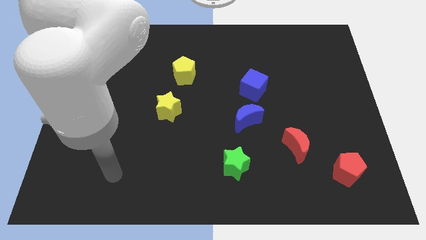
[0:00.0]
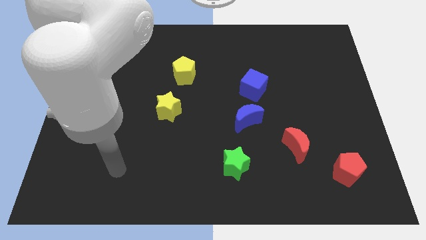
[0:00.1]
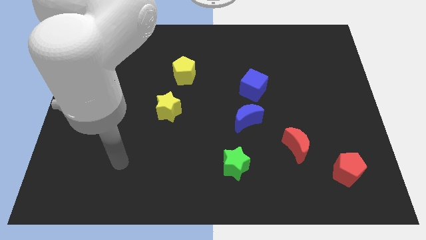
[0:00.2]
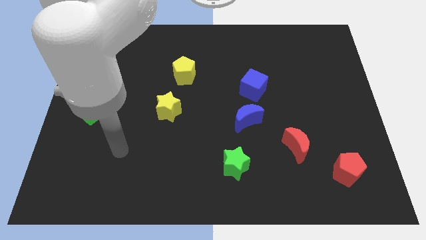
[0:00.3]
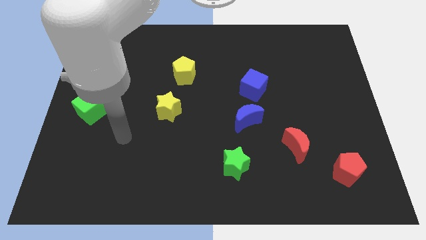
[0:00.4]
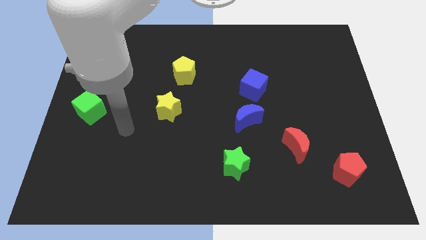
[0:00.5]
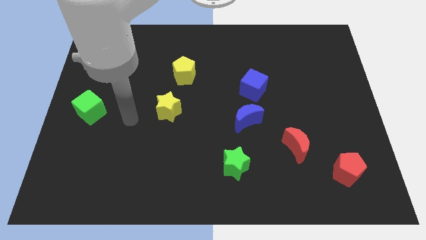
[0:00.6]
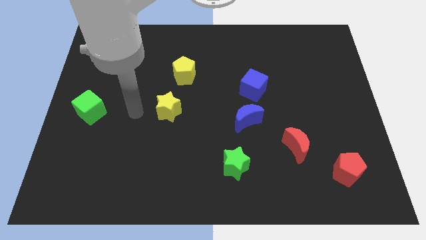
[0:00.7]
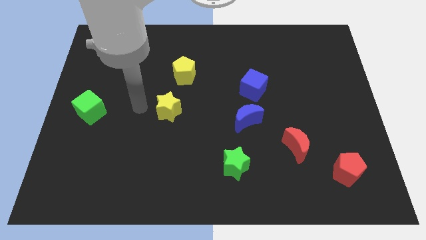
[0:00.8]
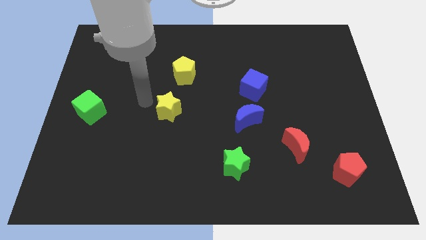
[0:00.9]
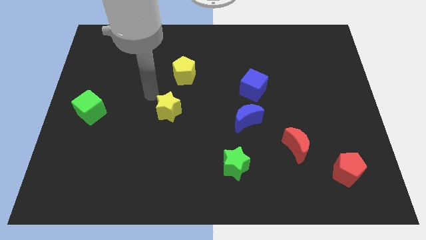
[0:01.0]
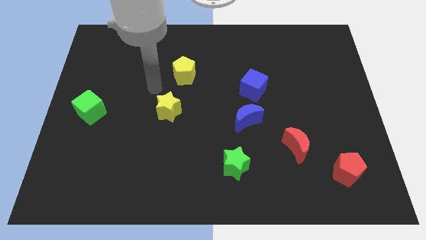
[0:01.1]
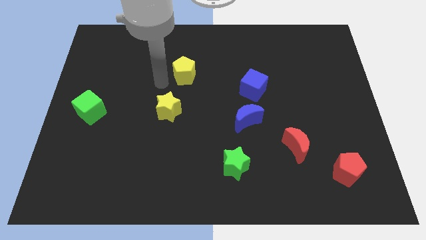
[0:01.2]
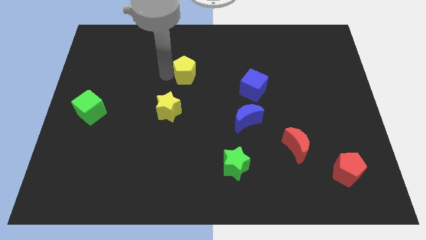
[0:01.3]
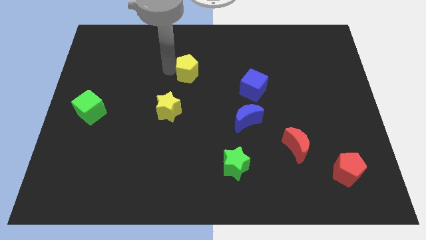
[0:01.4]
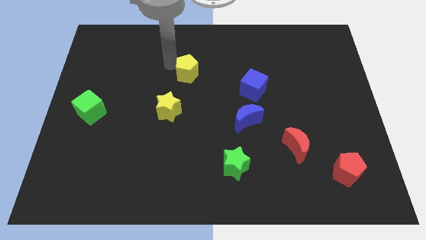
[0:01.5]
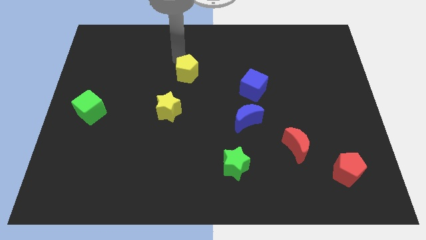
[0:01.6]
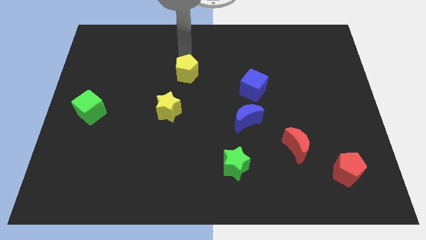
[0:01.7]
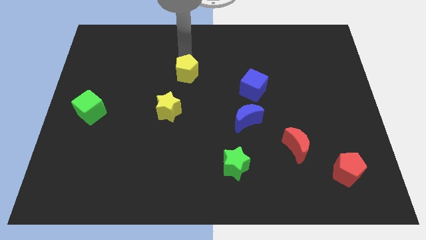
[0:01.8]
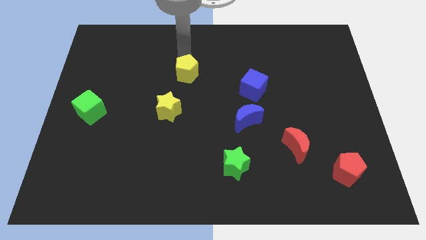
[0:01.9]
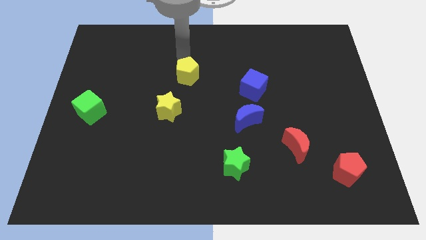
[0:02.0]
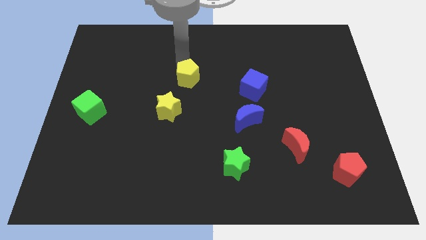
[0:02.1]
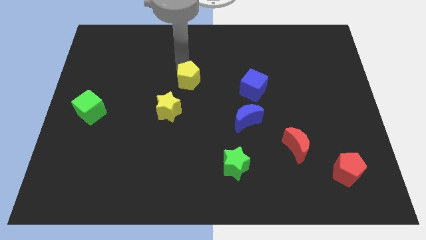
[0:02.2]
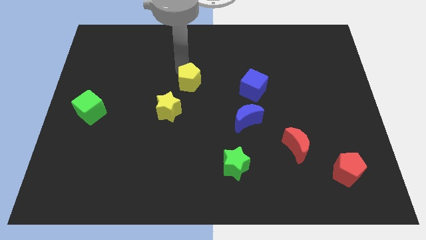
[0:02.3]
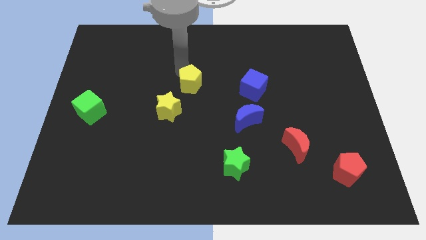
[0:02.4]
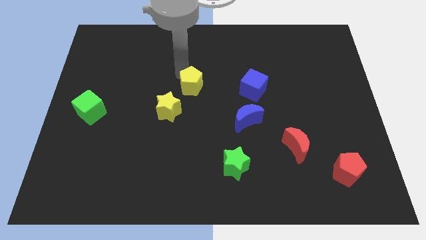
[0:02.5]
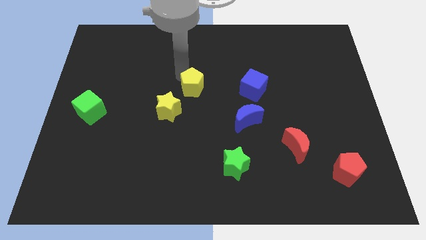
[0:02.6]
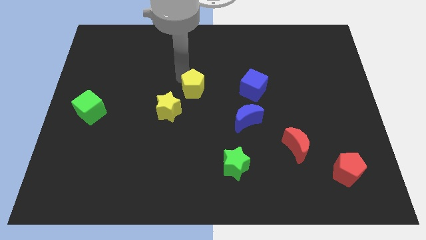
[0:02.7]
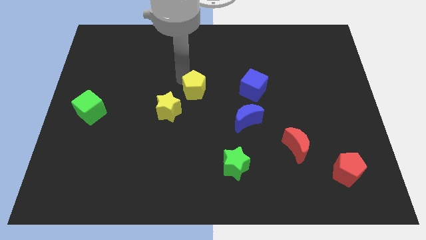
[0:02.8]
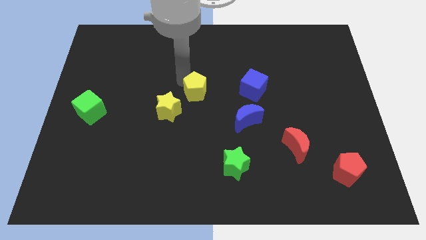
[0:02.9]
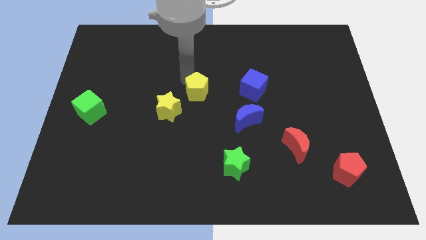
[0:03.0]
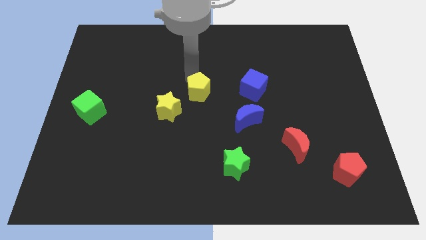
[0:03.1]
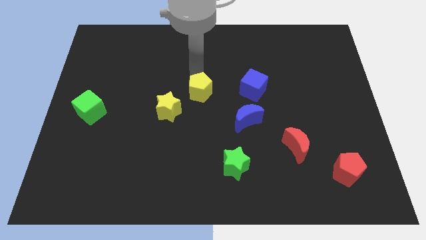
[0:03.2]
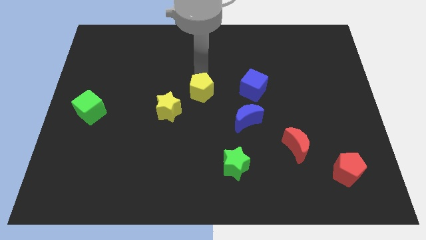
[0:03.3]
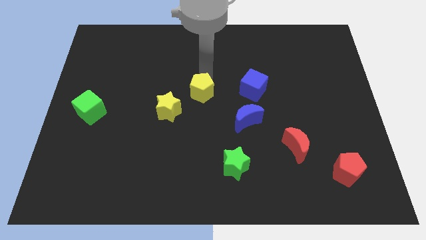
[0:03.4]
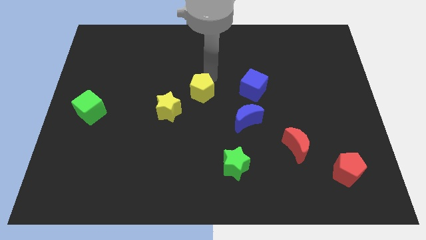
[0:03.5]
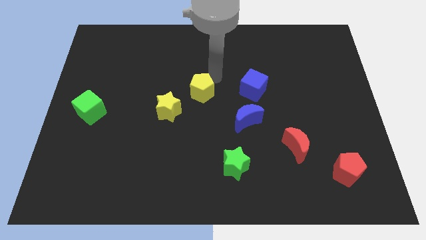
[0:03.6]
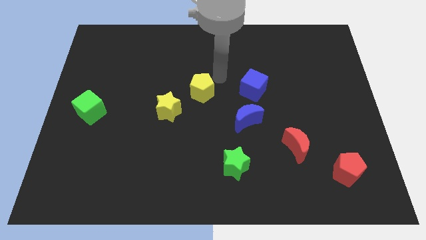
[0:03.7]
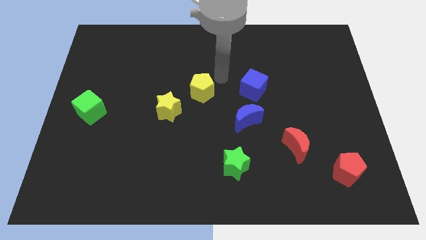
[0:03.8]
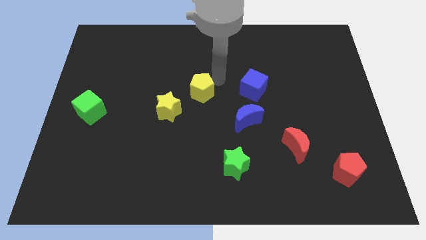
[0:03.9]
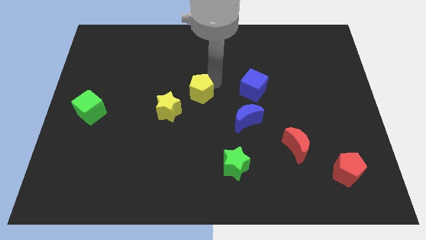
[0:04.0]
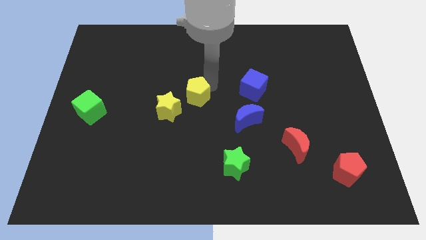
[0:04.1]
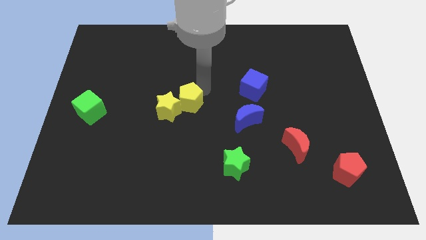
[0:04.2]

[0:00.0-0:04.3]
slide the yellow pentagon downwards a bit

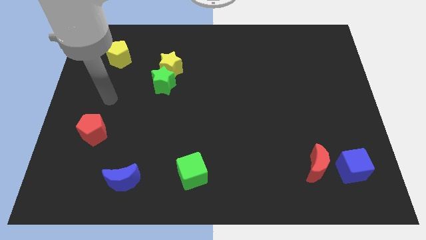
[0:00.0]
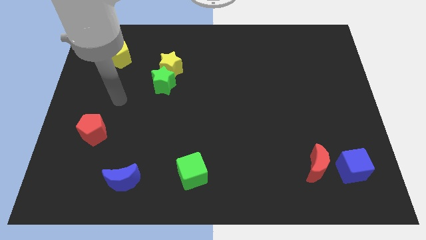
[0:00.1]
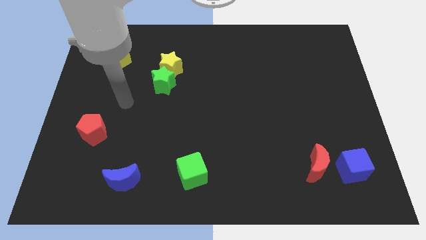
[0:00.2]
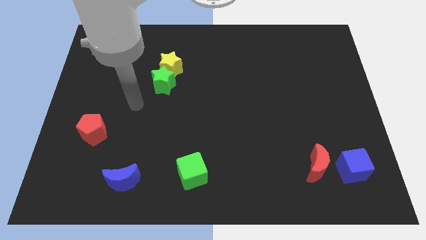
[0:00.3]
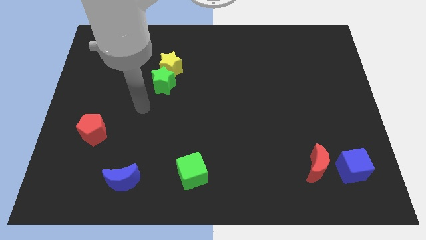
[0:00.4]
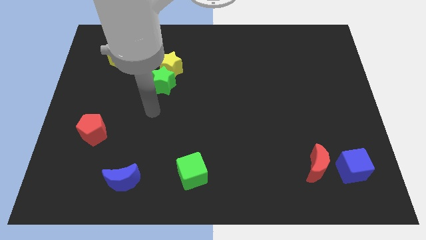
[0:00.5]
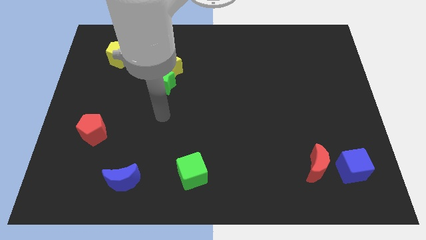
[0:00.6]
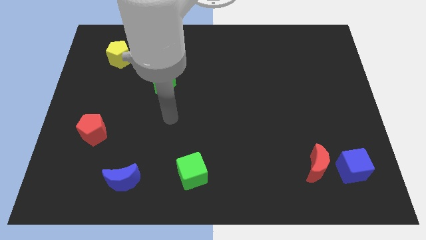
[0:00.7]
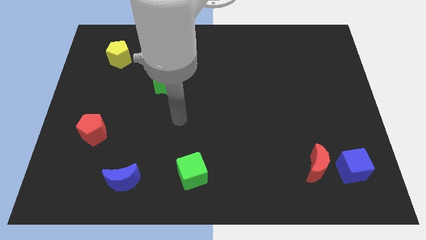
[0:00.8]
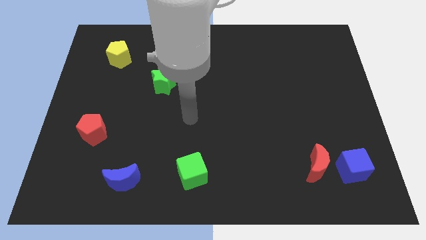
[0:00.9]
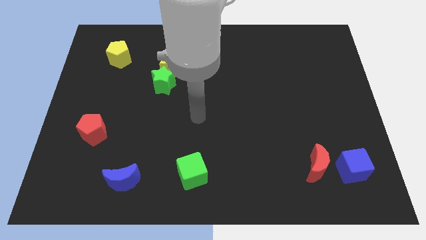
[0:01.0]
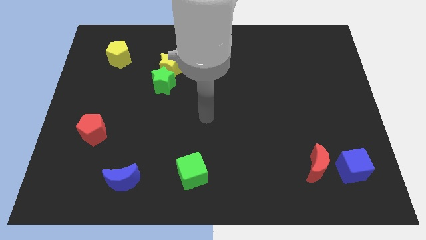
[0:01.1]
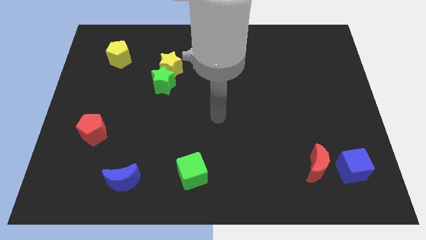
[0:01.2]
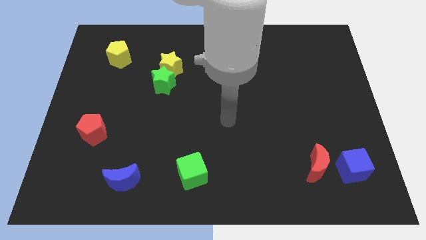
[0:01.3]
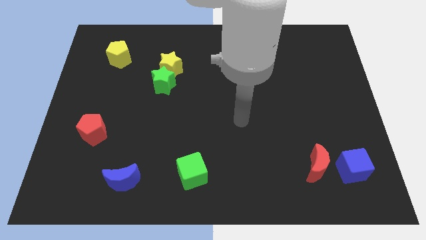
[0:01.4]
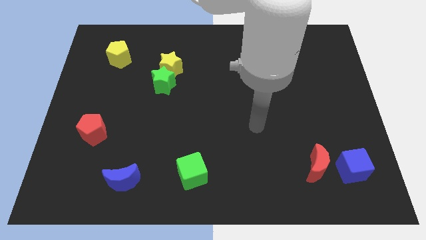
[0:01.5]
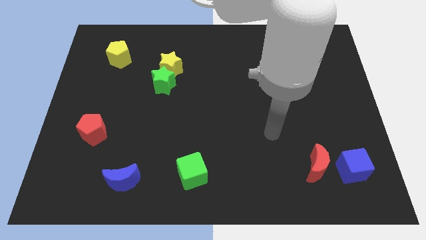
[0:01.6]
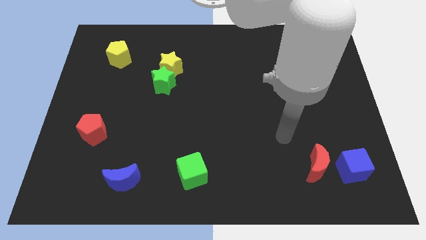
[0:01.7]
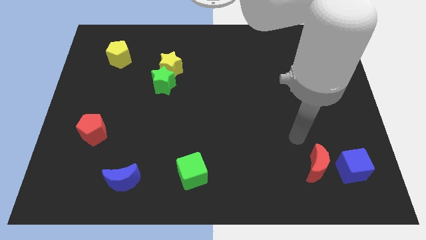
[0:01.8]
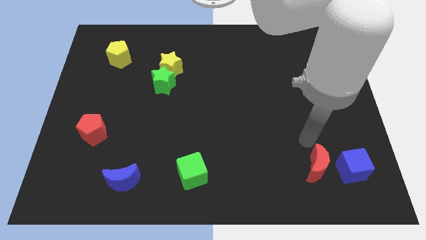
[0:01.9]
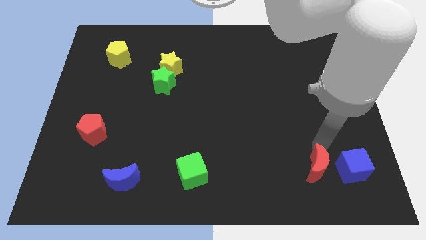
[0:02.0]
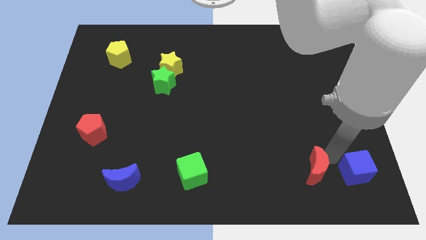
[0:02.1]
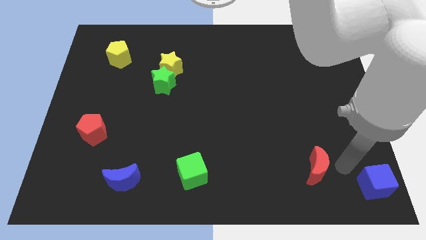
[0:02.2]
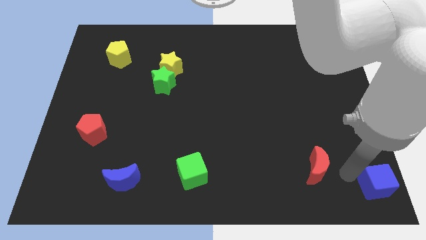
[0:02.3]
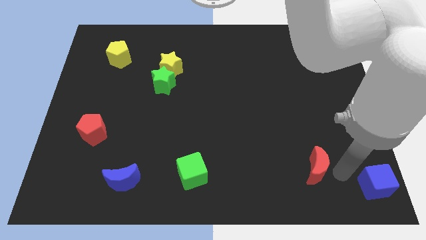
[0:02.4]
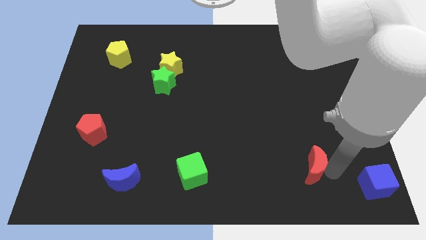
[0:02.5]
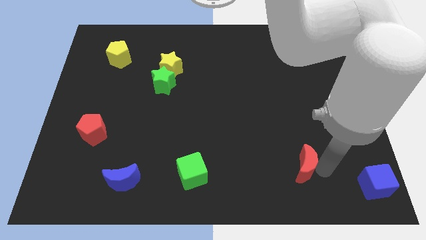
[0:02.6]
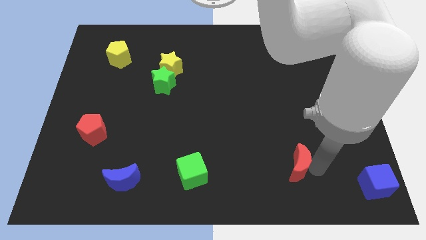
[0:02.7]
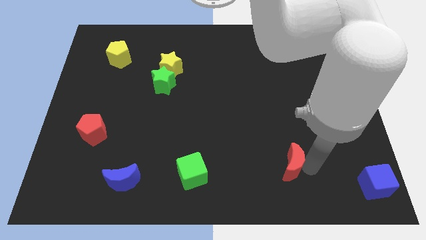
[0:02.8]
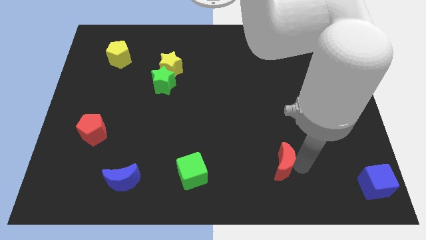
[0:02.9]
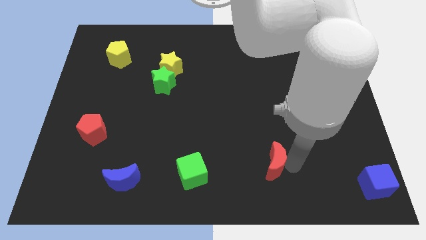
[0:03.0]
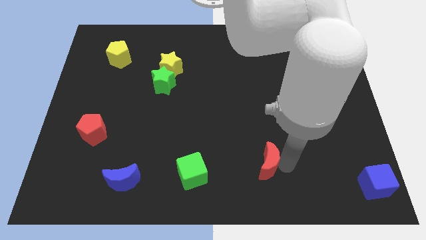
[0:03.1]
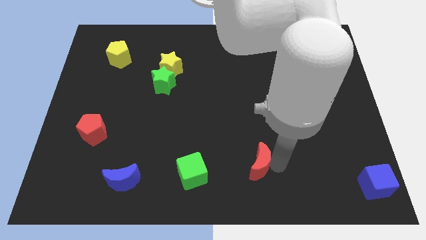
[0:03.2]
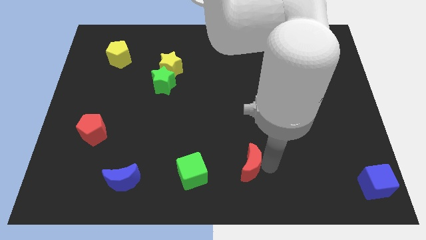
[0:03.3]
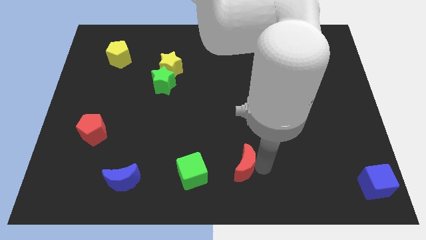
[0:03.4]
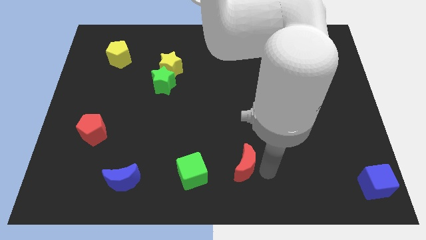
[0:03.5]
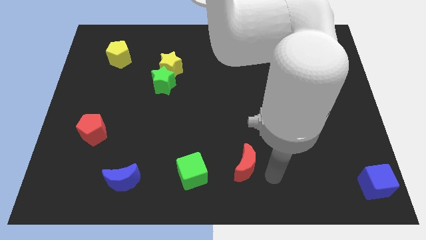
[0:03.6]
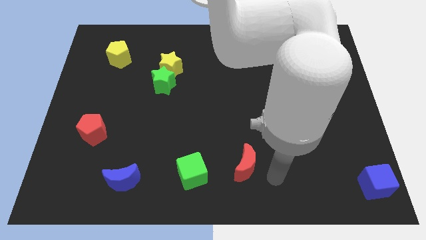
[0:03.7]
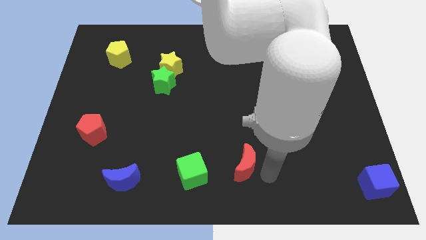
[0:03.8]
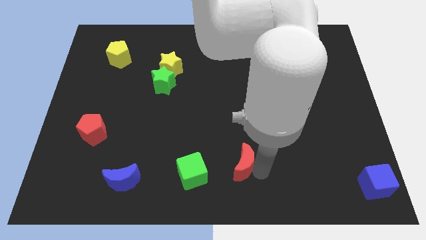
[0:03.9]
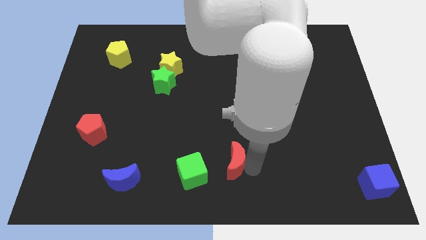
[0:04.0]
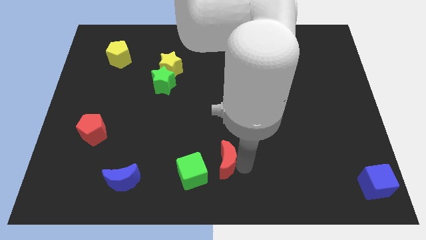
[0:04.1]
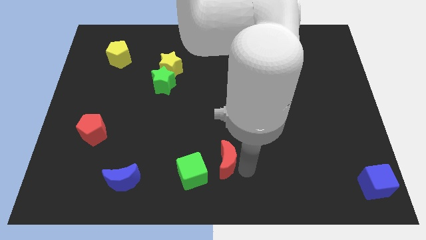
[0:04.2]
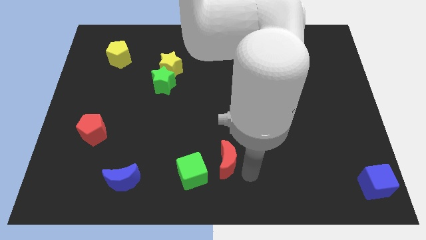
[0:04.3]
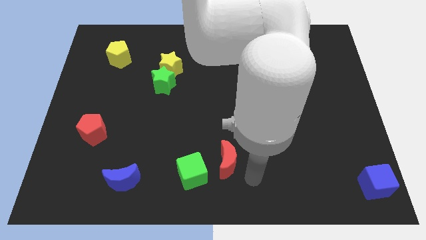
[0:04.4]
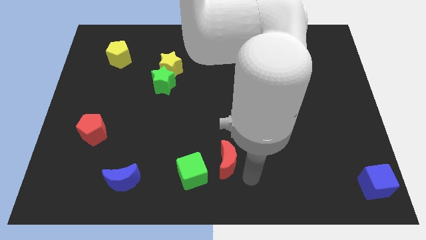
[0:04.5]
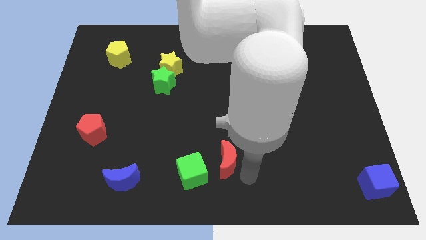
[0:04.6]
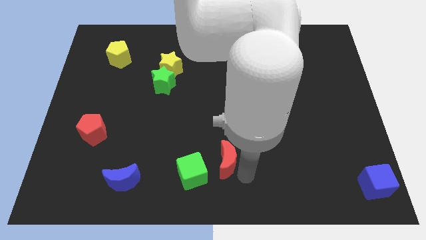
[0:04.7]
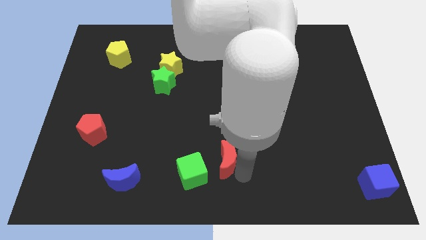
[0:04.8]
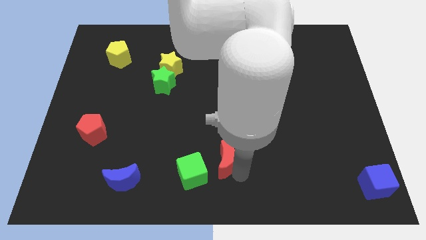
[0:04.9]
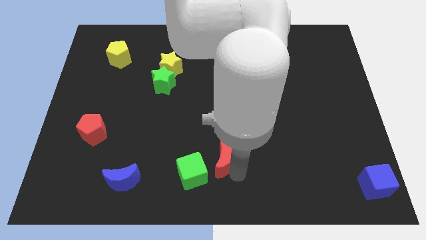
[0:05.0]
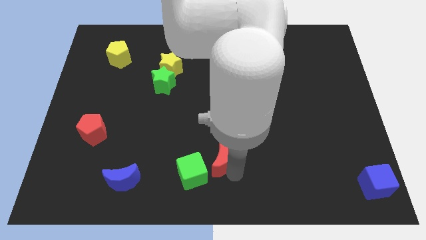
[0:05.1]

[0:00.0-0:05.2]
push the red moon to the left
